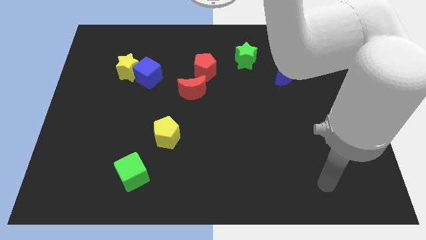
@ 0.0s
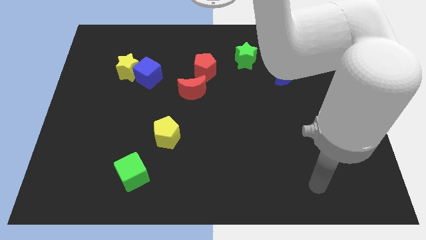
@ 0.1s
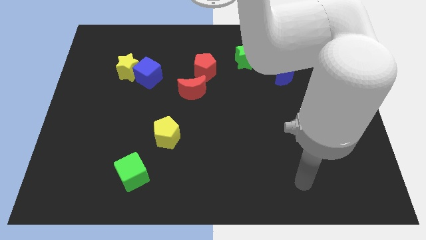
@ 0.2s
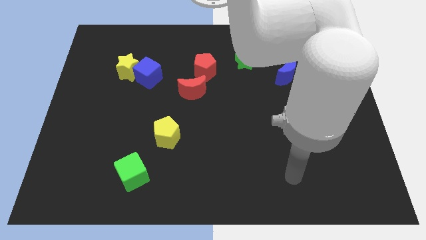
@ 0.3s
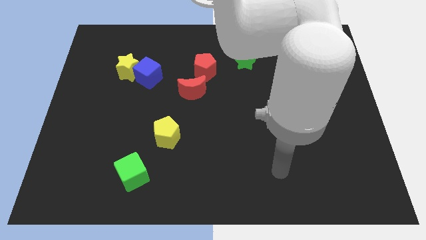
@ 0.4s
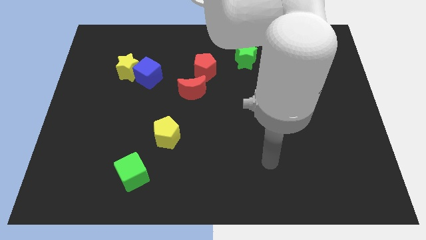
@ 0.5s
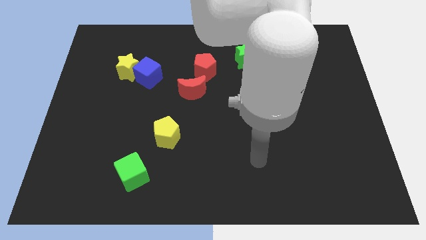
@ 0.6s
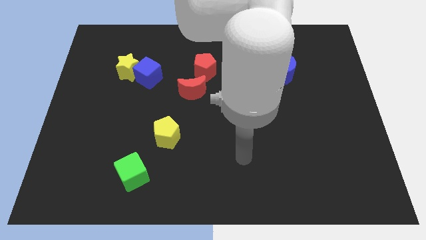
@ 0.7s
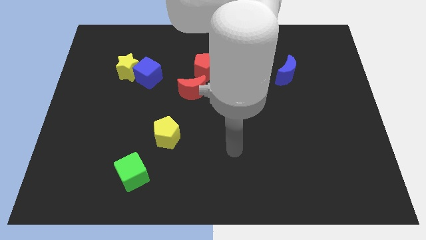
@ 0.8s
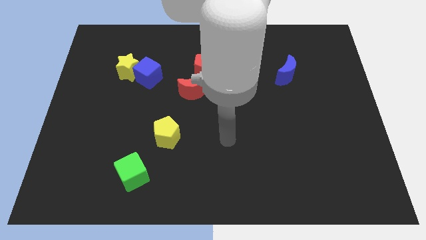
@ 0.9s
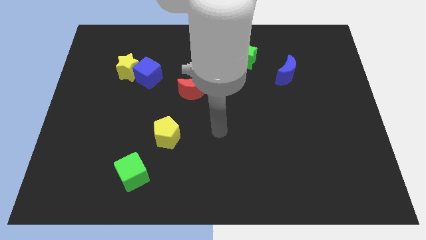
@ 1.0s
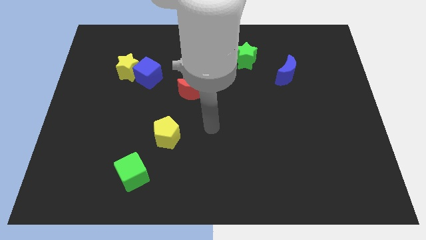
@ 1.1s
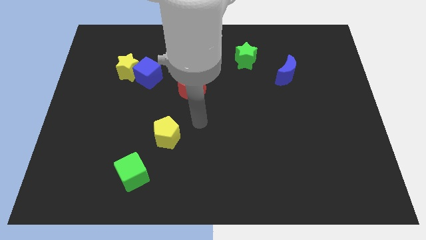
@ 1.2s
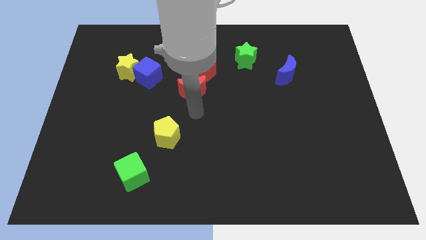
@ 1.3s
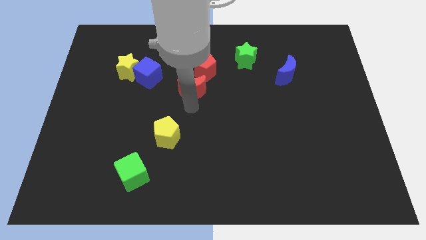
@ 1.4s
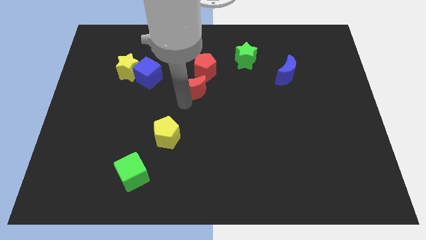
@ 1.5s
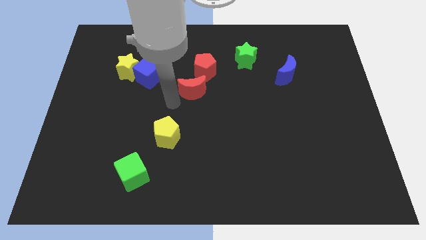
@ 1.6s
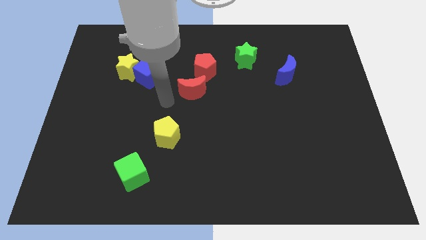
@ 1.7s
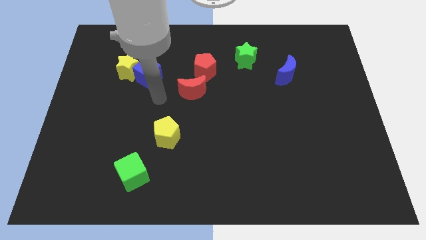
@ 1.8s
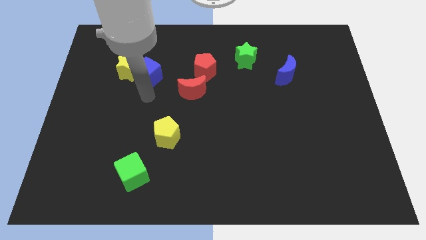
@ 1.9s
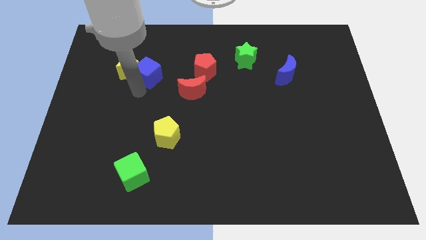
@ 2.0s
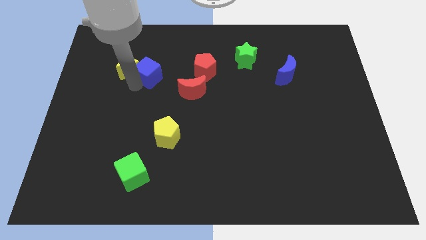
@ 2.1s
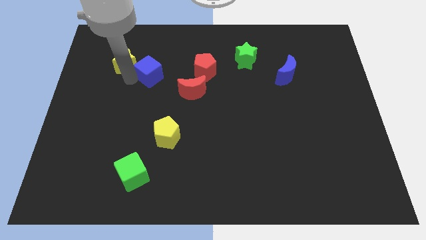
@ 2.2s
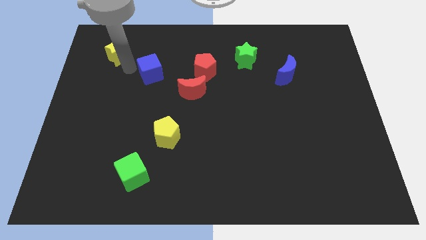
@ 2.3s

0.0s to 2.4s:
pull the blue cube apart from the yellow star

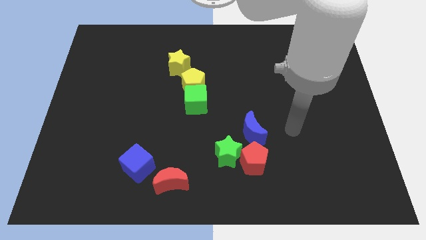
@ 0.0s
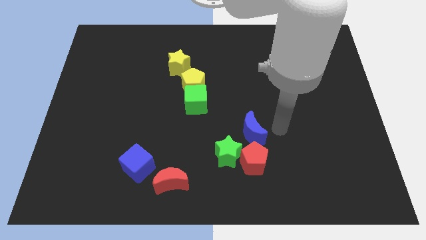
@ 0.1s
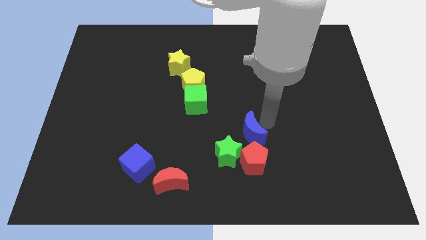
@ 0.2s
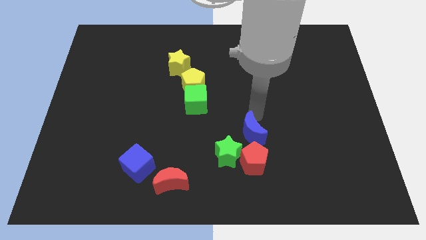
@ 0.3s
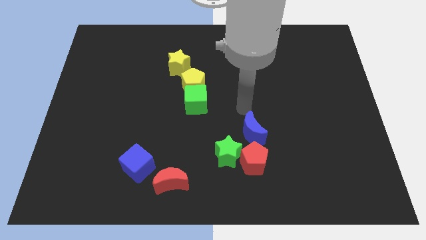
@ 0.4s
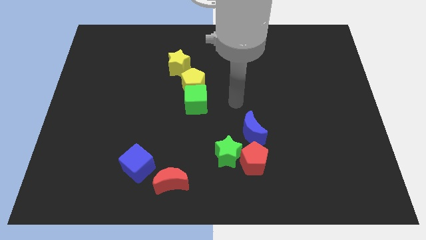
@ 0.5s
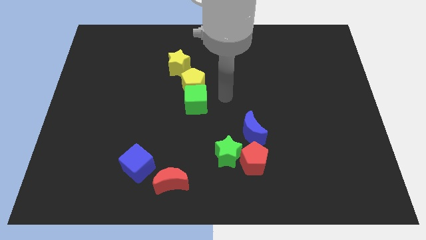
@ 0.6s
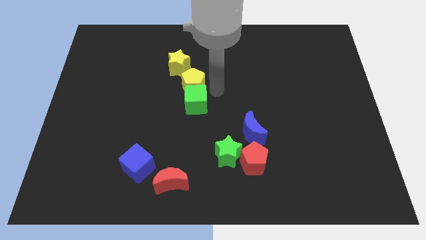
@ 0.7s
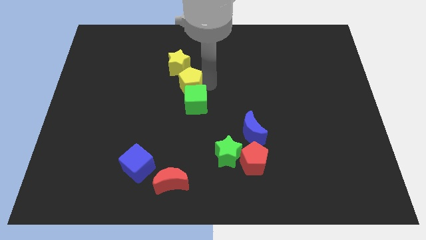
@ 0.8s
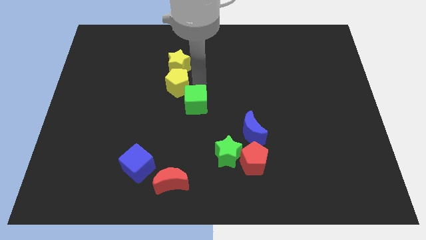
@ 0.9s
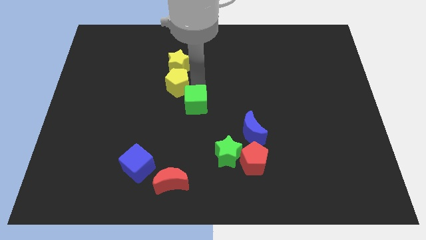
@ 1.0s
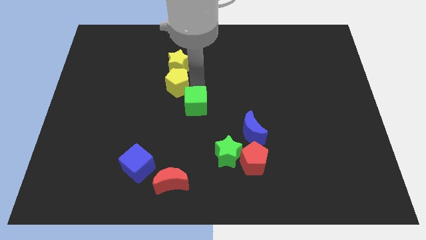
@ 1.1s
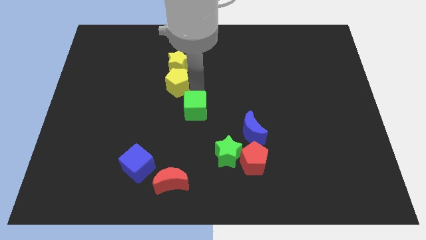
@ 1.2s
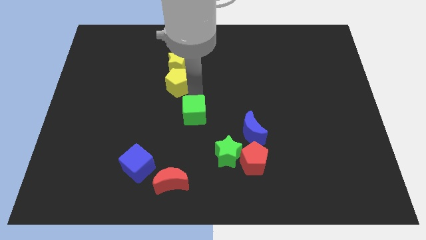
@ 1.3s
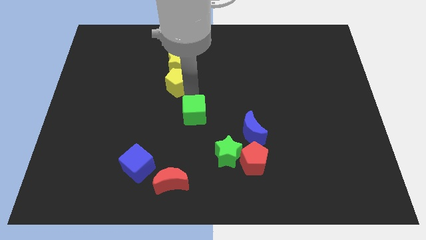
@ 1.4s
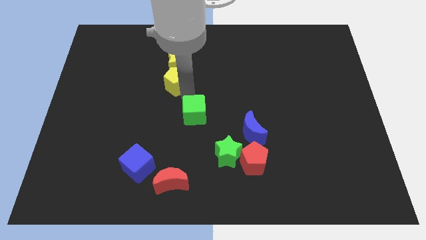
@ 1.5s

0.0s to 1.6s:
move the green cube away from the yellow pentagon

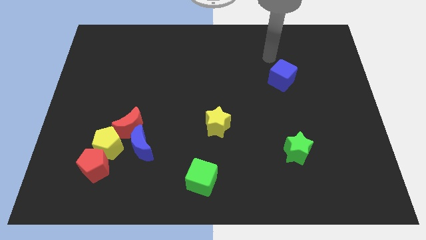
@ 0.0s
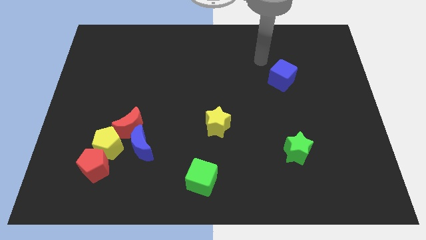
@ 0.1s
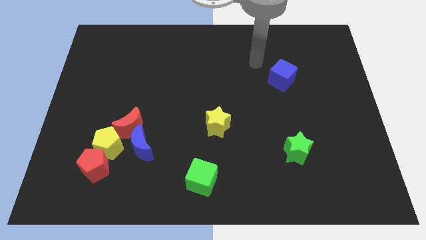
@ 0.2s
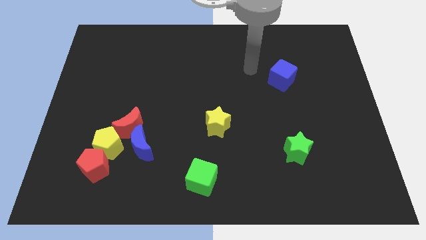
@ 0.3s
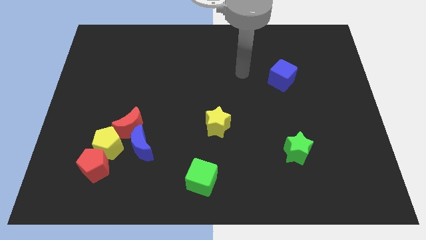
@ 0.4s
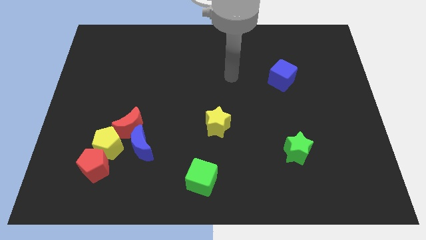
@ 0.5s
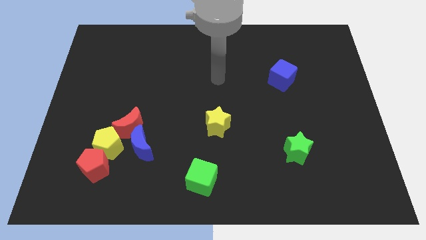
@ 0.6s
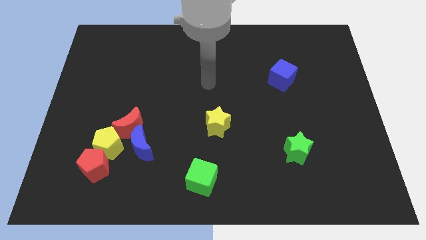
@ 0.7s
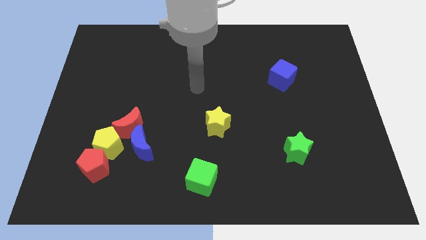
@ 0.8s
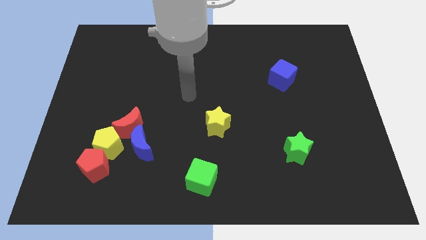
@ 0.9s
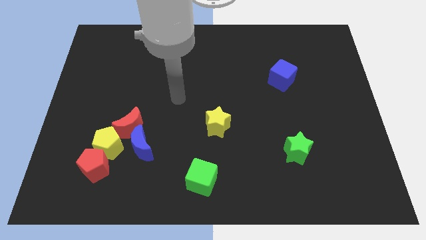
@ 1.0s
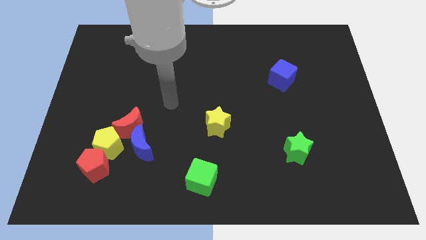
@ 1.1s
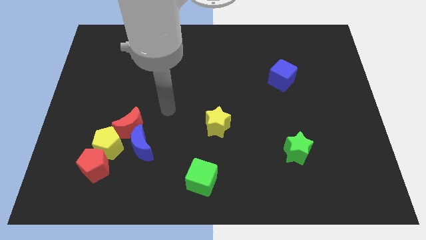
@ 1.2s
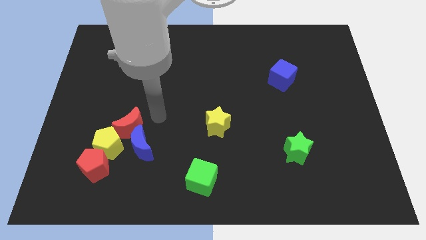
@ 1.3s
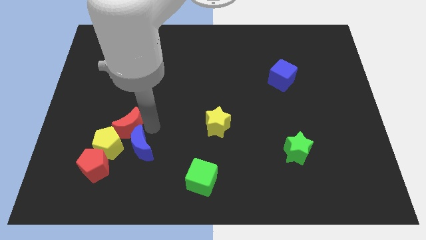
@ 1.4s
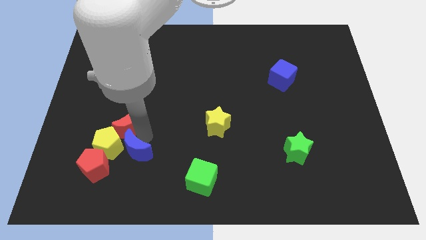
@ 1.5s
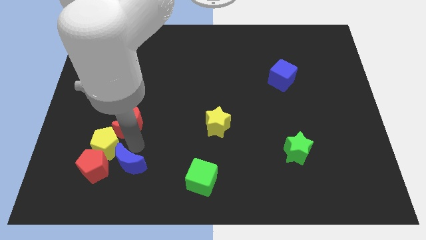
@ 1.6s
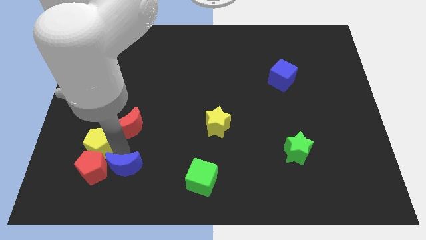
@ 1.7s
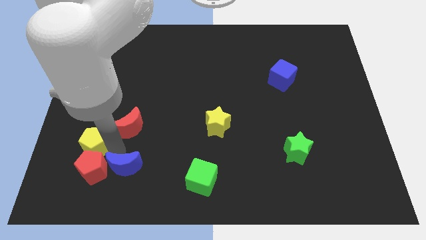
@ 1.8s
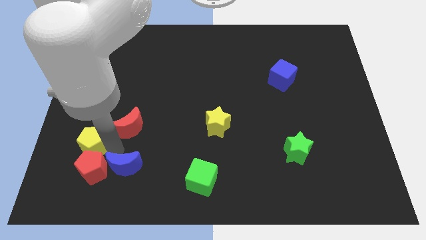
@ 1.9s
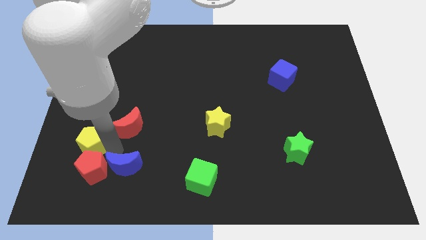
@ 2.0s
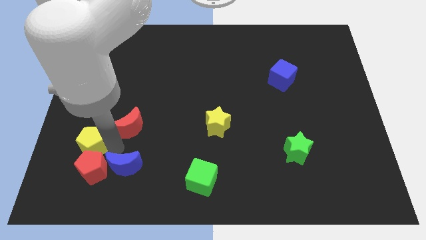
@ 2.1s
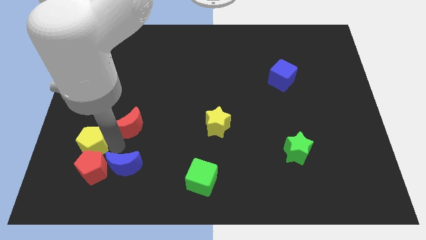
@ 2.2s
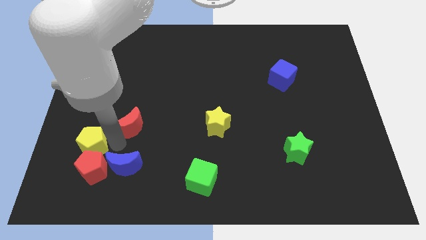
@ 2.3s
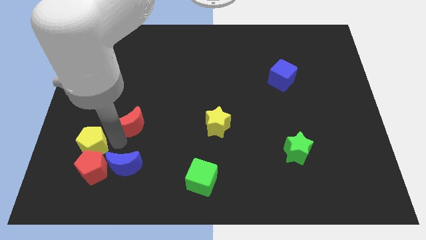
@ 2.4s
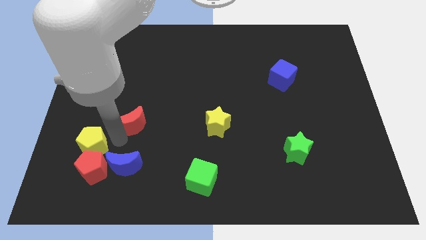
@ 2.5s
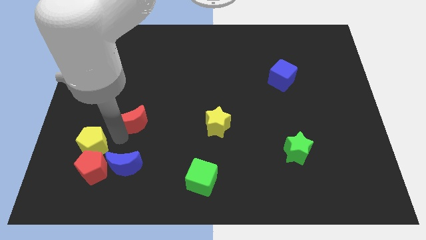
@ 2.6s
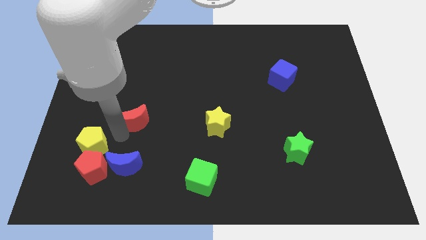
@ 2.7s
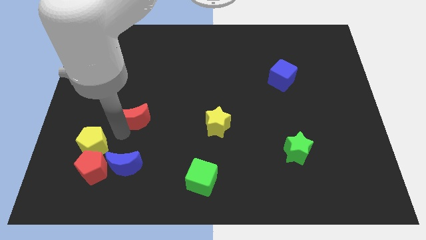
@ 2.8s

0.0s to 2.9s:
move the red moon away from the blue moon and yellow pentagon

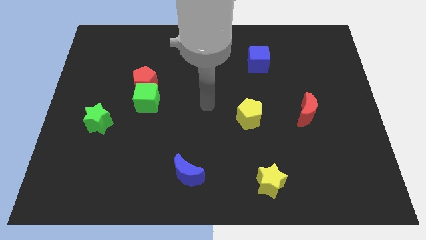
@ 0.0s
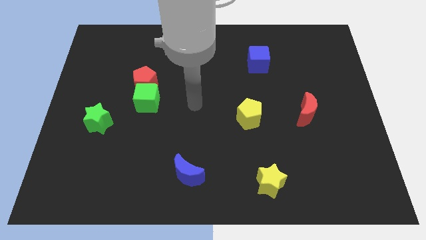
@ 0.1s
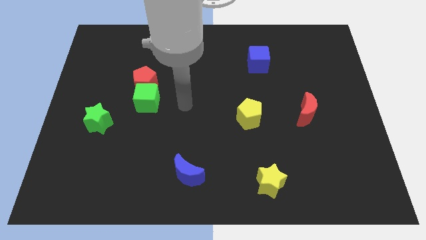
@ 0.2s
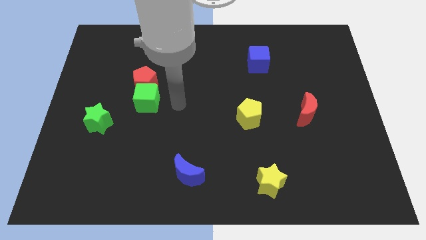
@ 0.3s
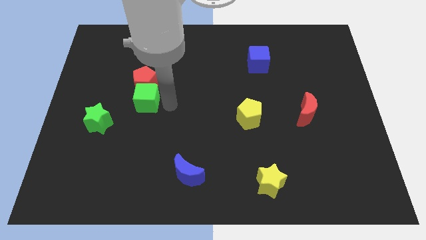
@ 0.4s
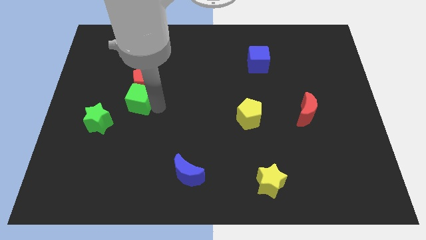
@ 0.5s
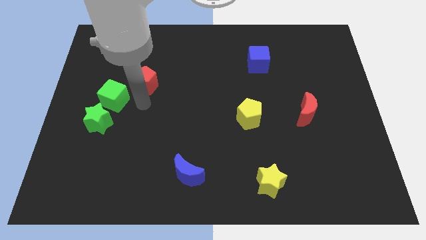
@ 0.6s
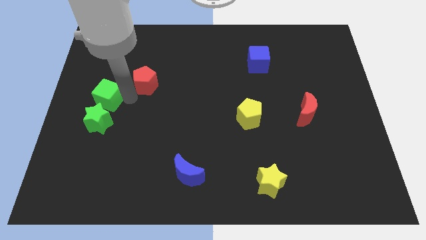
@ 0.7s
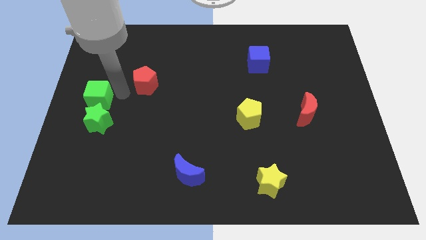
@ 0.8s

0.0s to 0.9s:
separate the red pentagon from the green cube

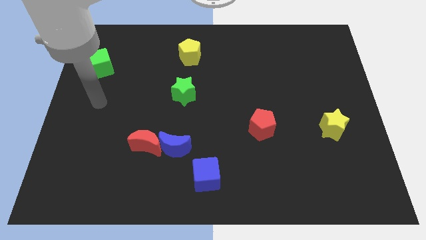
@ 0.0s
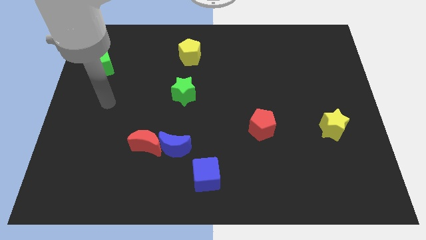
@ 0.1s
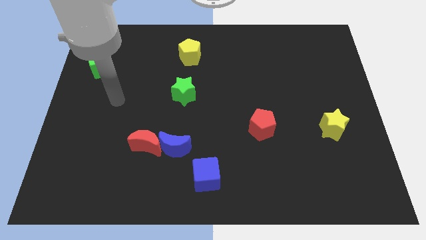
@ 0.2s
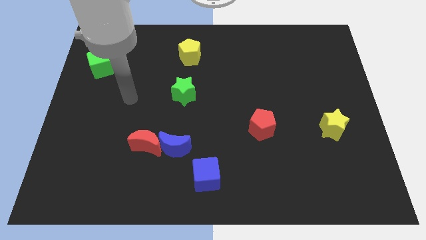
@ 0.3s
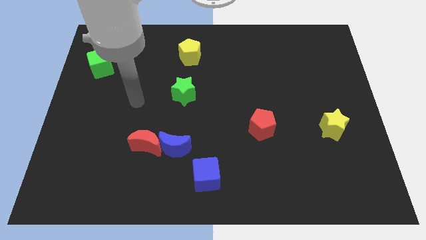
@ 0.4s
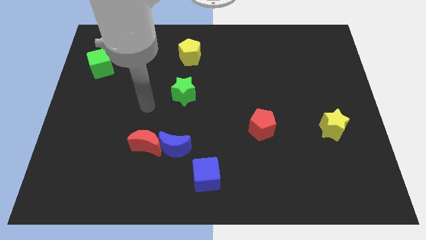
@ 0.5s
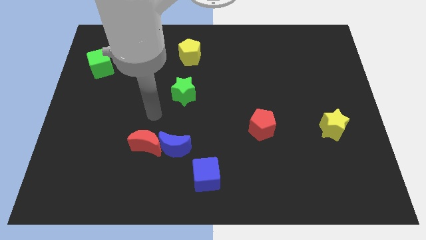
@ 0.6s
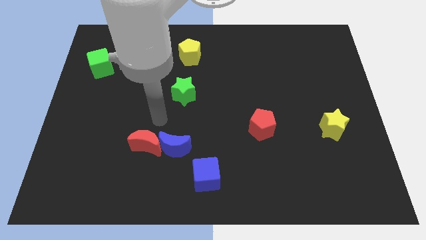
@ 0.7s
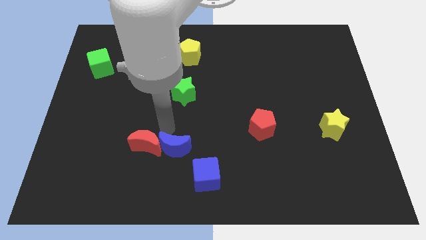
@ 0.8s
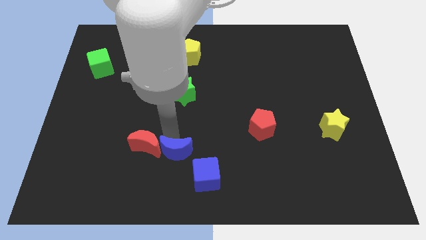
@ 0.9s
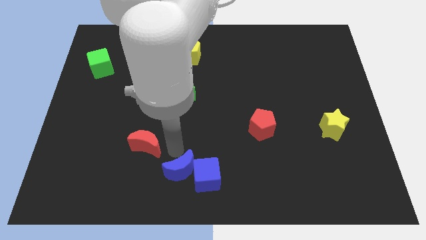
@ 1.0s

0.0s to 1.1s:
separate the red moon from the blue moon

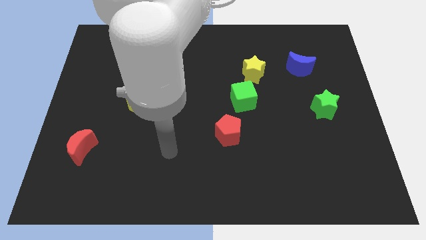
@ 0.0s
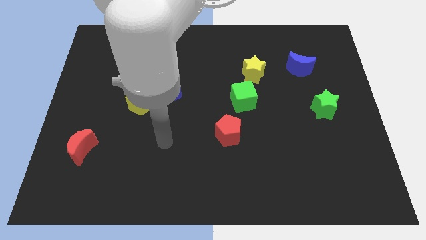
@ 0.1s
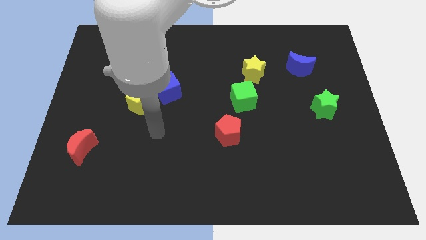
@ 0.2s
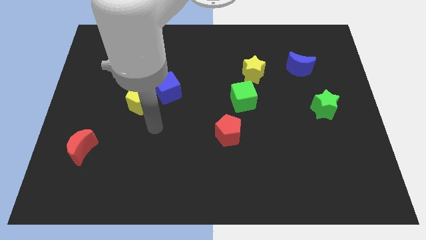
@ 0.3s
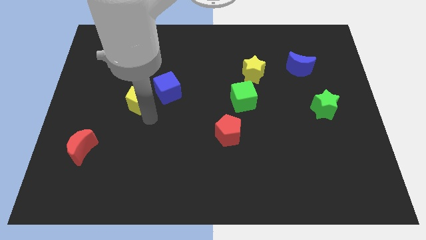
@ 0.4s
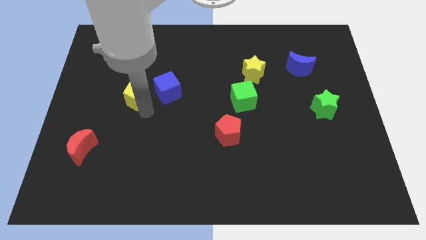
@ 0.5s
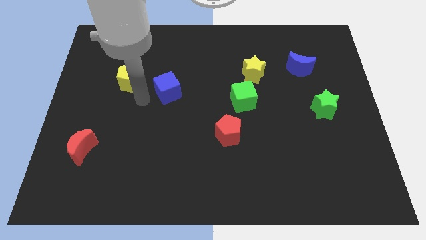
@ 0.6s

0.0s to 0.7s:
separate the blue cube from the yellow pentagon
